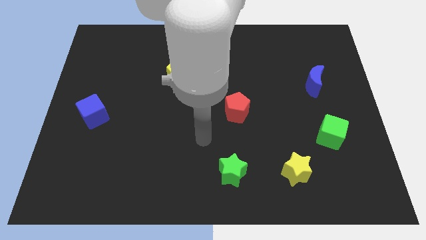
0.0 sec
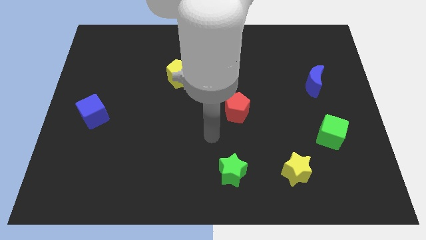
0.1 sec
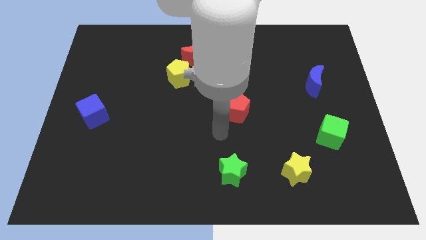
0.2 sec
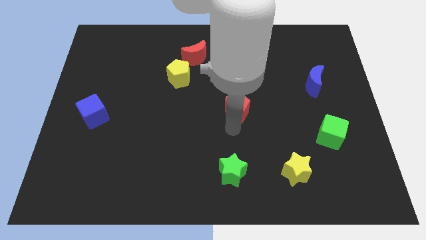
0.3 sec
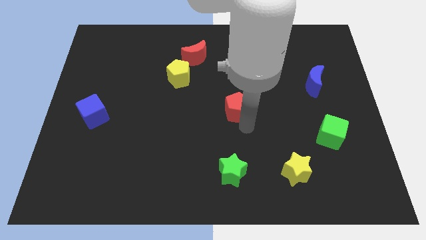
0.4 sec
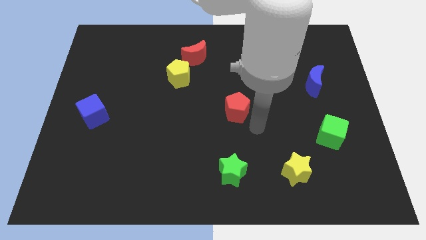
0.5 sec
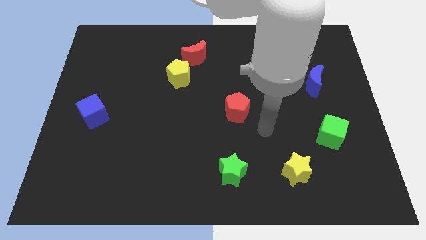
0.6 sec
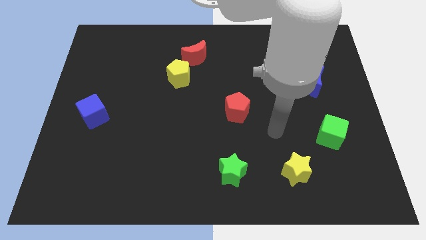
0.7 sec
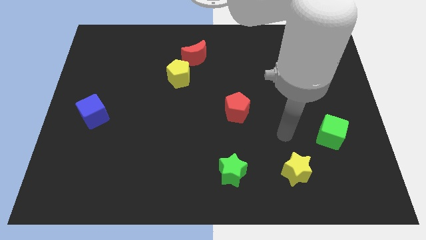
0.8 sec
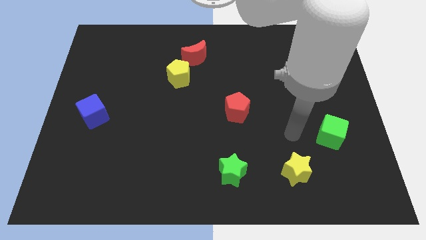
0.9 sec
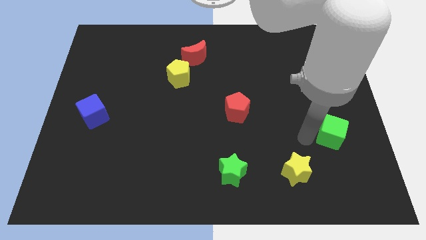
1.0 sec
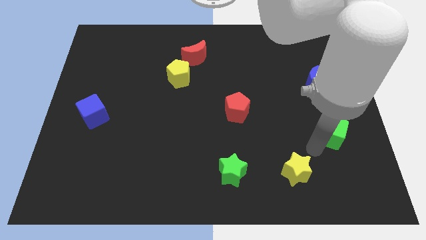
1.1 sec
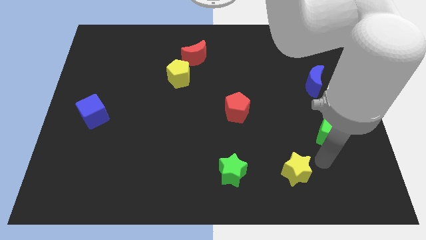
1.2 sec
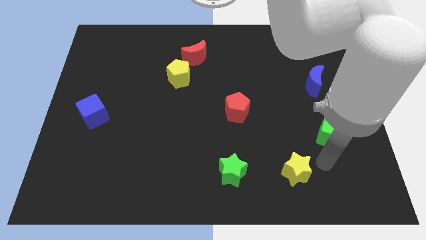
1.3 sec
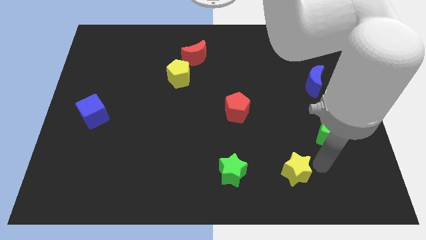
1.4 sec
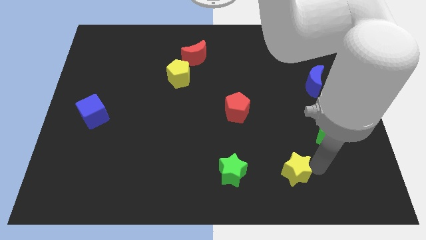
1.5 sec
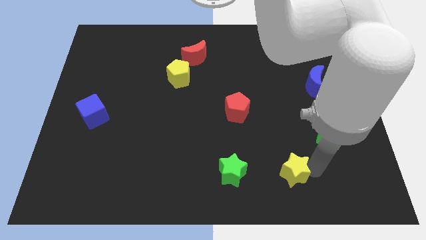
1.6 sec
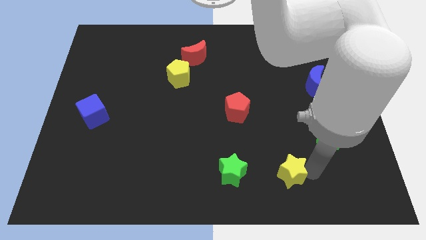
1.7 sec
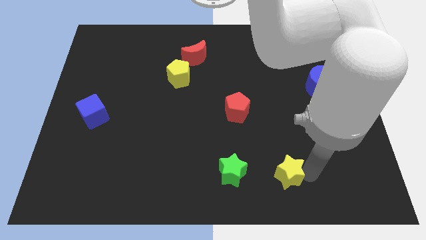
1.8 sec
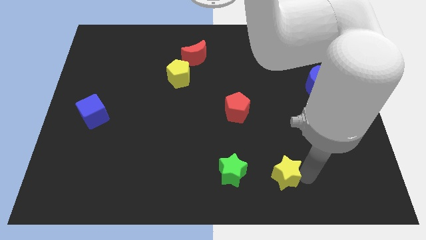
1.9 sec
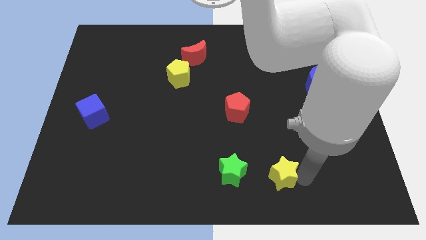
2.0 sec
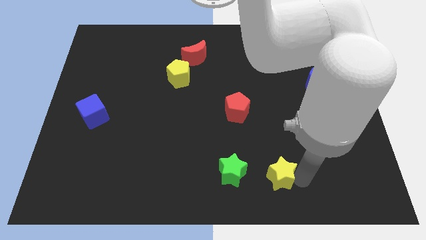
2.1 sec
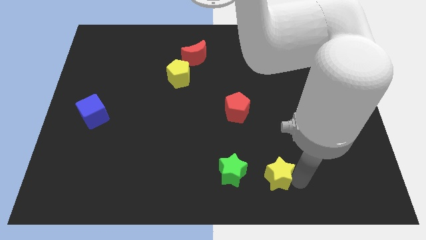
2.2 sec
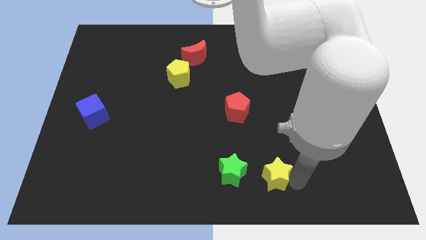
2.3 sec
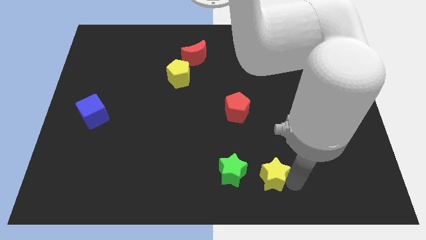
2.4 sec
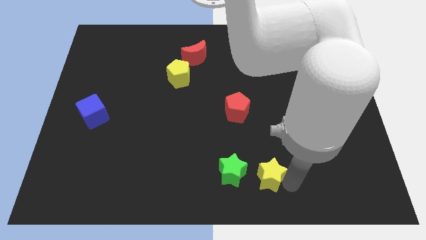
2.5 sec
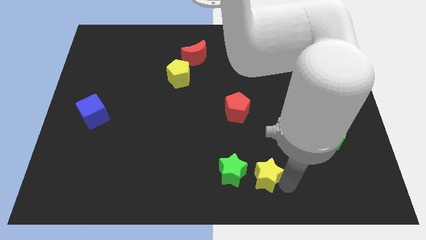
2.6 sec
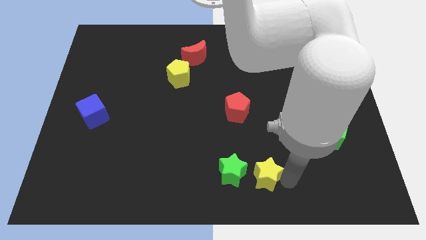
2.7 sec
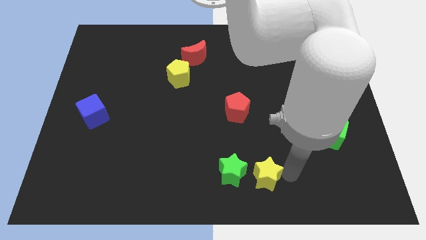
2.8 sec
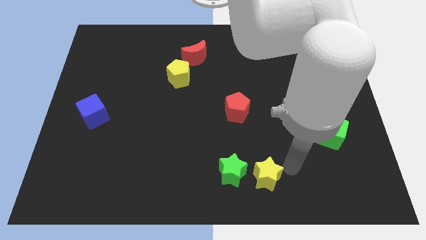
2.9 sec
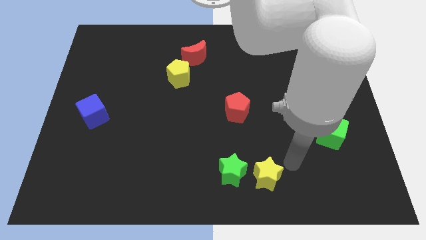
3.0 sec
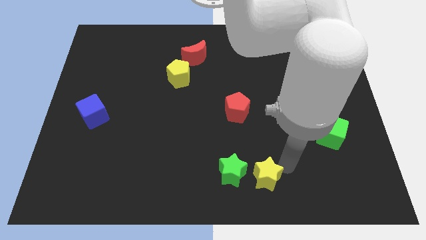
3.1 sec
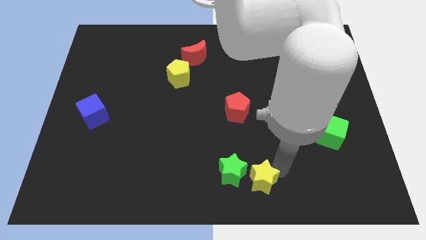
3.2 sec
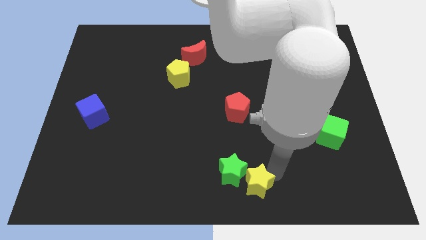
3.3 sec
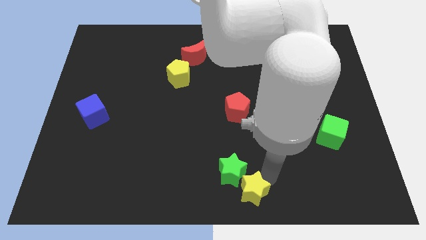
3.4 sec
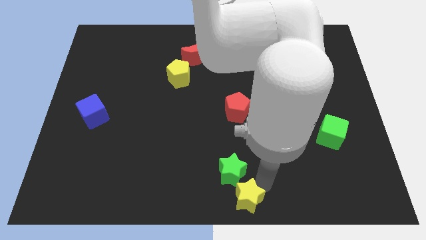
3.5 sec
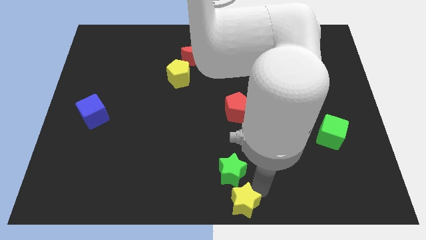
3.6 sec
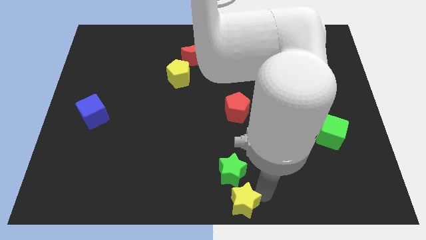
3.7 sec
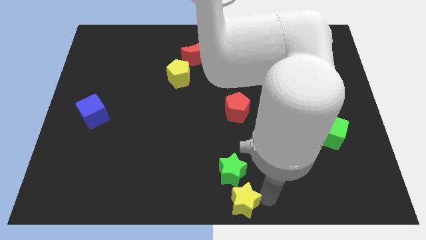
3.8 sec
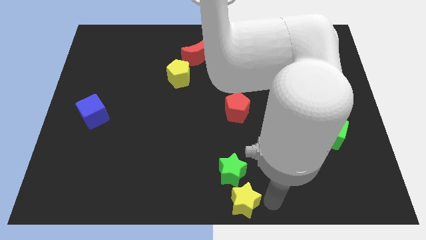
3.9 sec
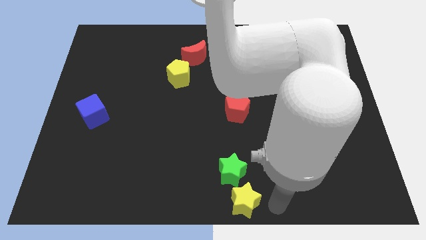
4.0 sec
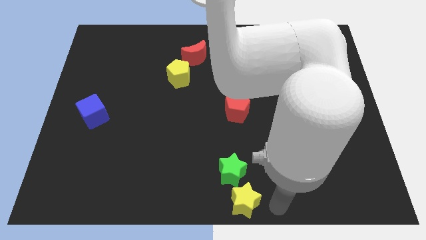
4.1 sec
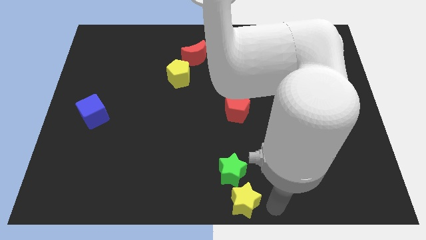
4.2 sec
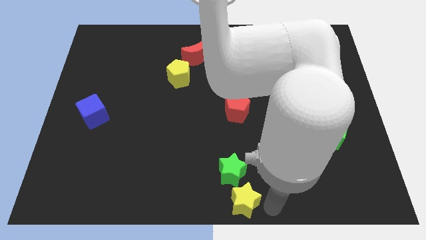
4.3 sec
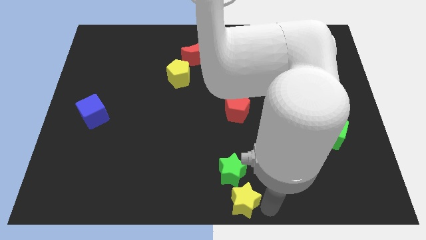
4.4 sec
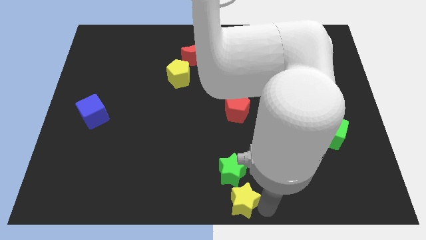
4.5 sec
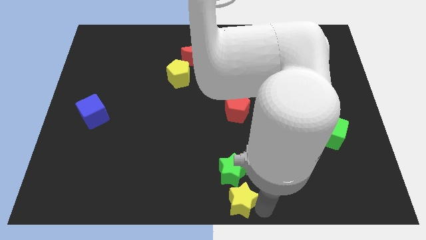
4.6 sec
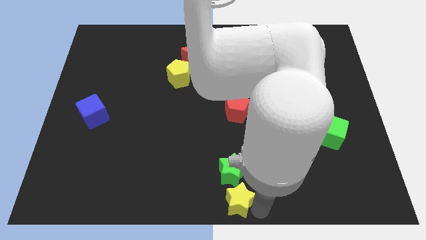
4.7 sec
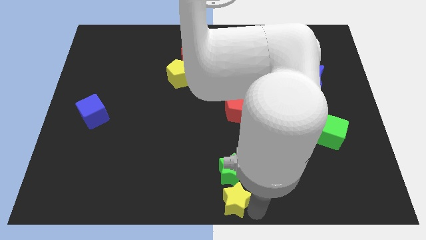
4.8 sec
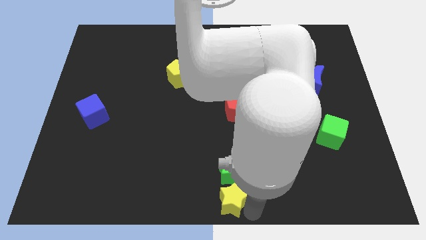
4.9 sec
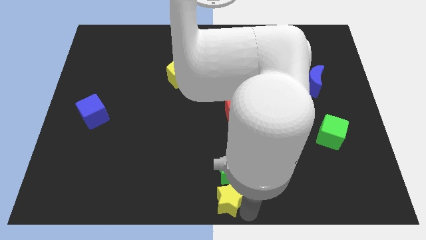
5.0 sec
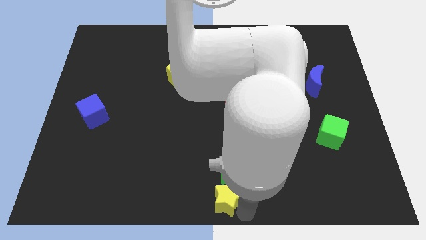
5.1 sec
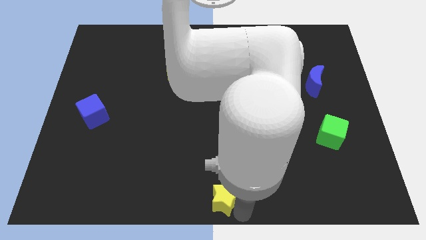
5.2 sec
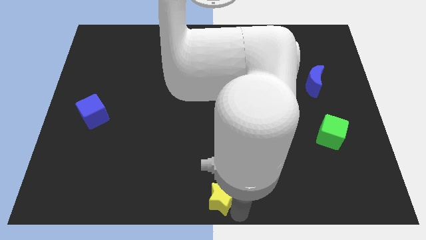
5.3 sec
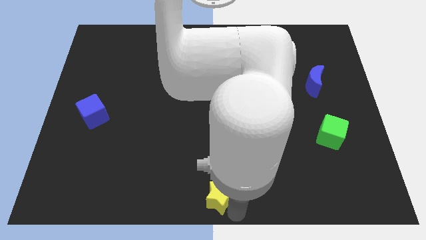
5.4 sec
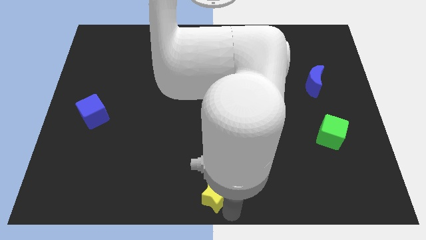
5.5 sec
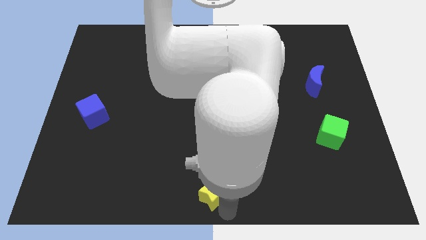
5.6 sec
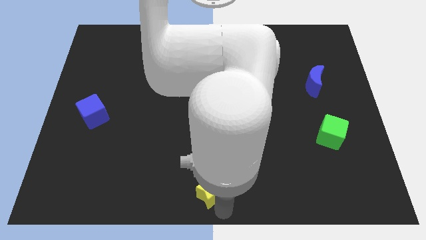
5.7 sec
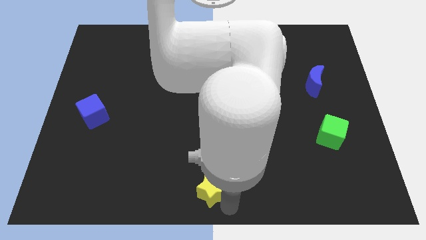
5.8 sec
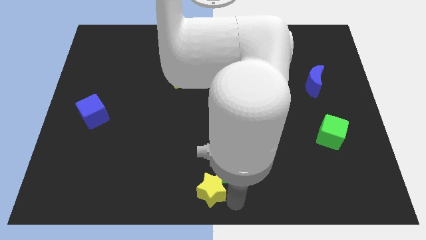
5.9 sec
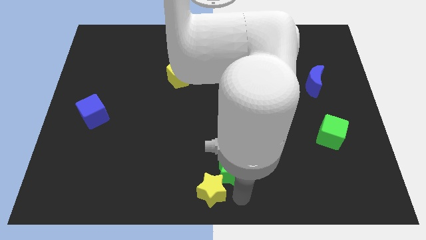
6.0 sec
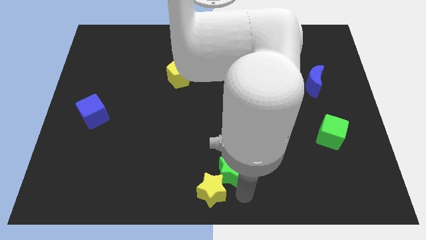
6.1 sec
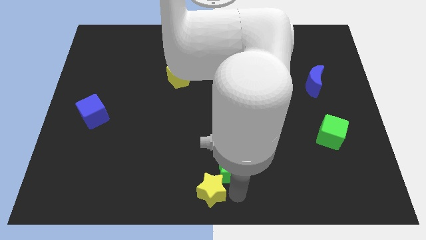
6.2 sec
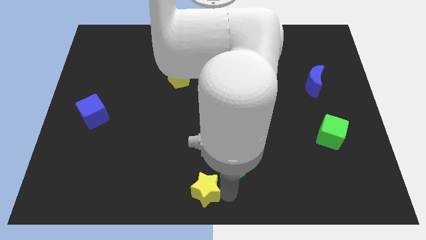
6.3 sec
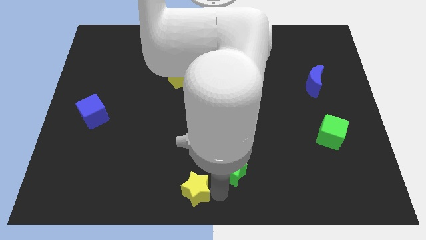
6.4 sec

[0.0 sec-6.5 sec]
slide the yellow star left

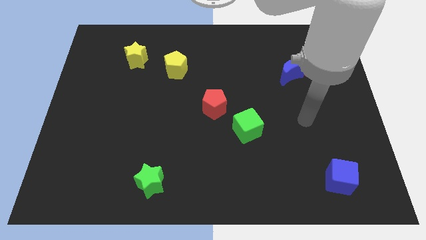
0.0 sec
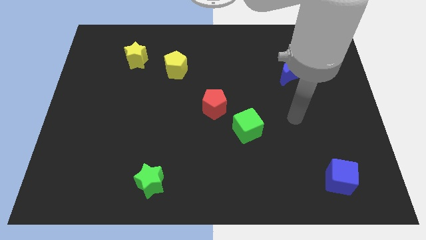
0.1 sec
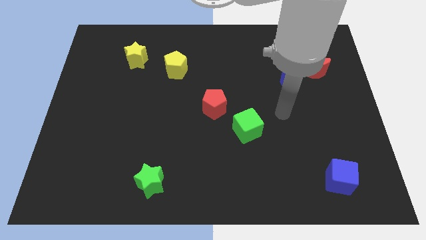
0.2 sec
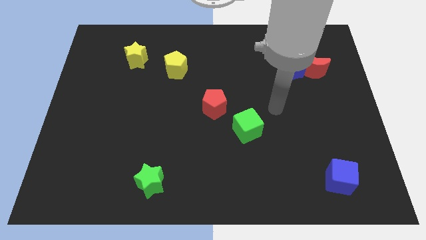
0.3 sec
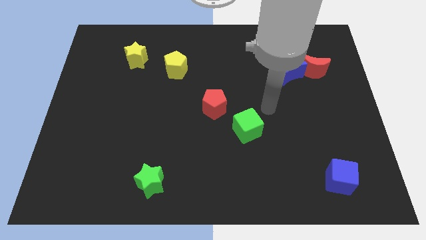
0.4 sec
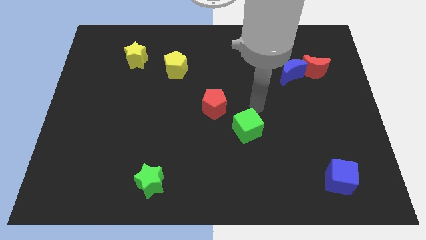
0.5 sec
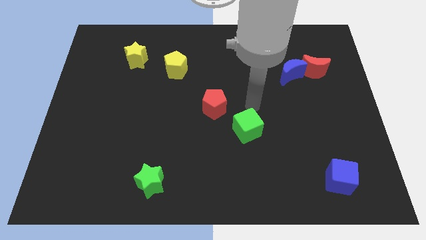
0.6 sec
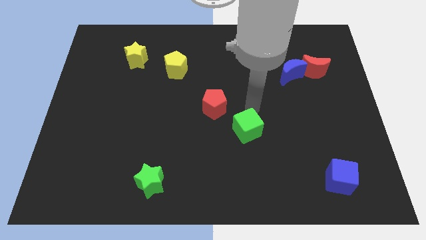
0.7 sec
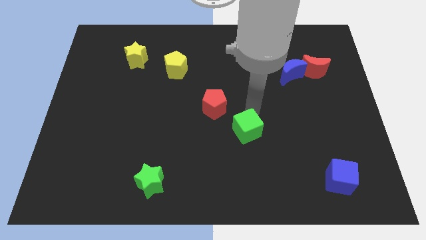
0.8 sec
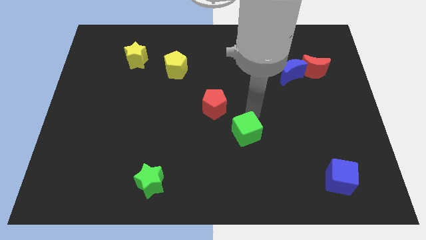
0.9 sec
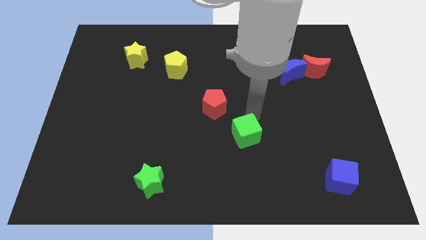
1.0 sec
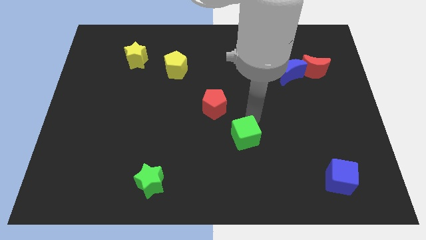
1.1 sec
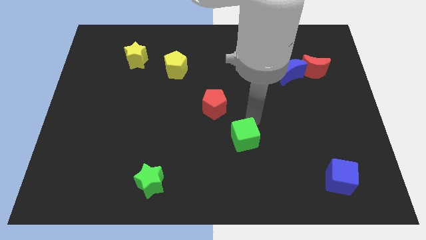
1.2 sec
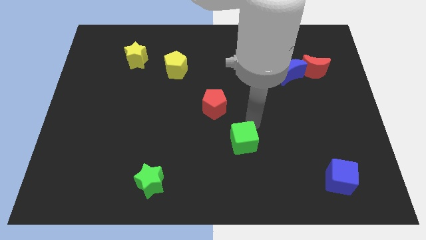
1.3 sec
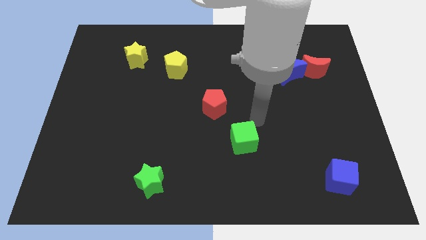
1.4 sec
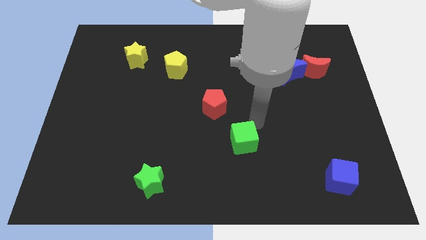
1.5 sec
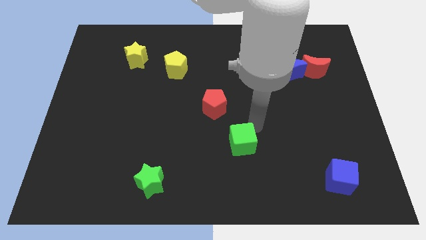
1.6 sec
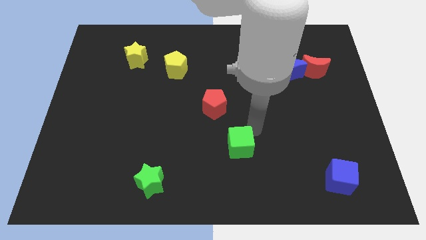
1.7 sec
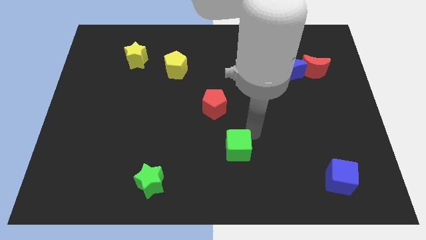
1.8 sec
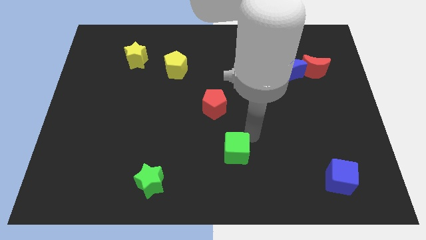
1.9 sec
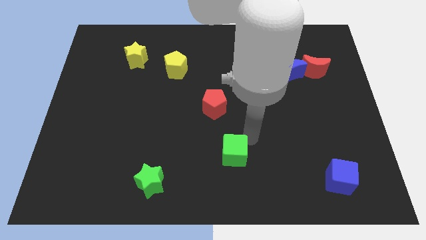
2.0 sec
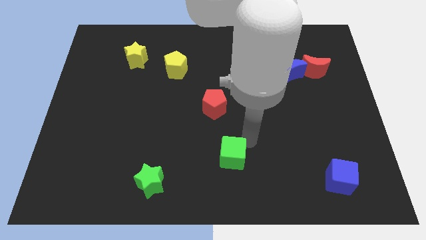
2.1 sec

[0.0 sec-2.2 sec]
slightly move the green cube diagonally downwards and to the left
